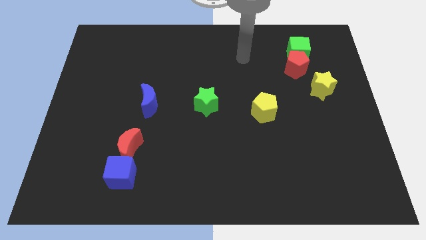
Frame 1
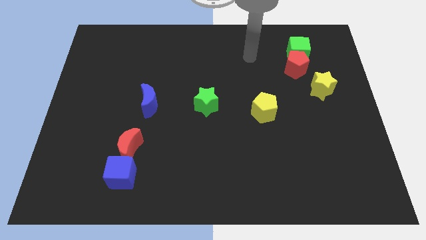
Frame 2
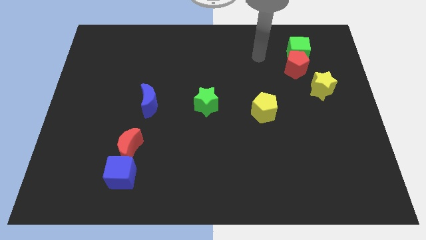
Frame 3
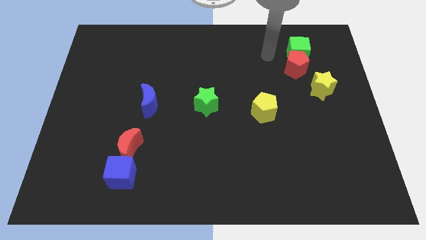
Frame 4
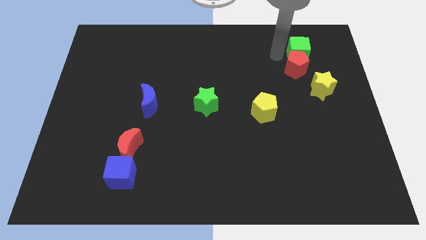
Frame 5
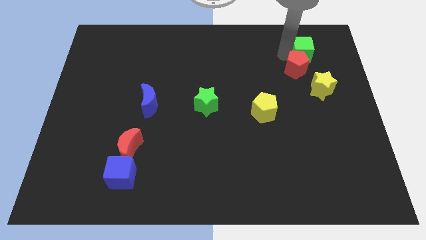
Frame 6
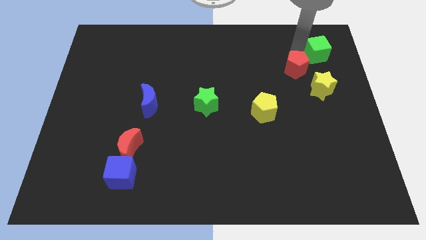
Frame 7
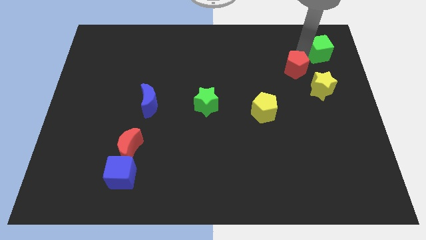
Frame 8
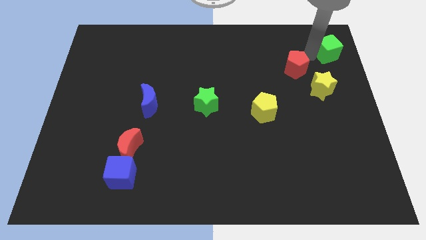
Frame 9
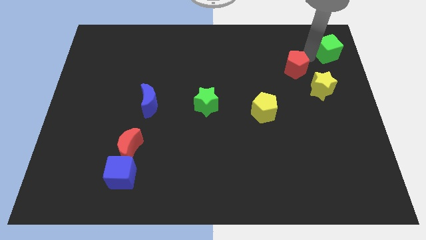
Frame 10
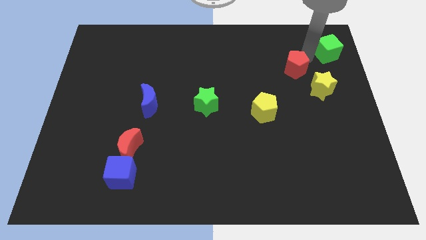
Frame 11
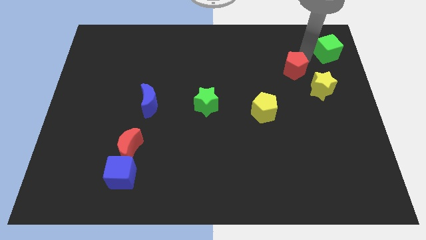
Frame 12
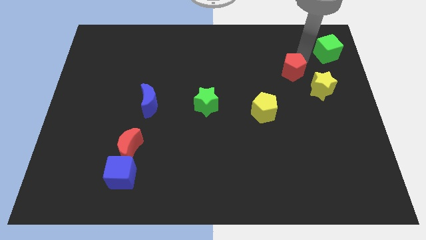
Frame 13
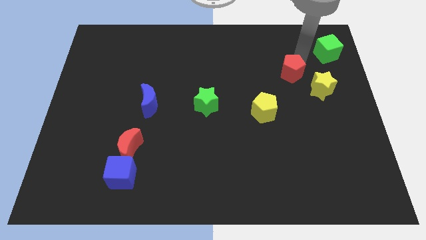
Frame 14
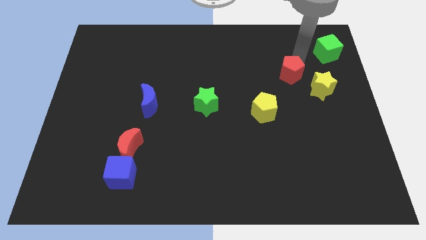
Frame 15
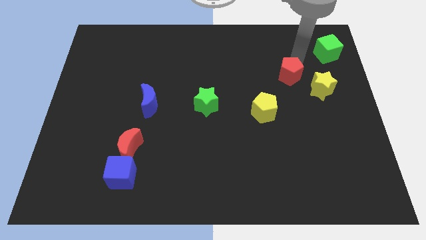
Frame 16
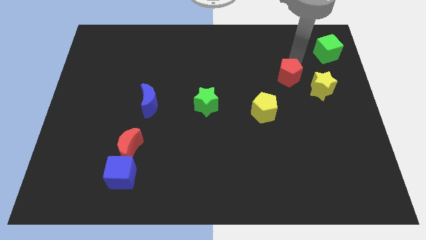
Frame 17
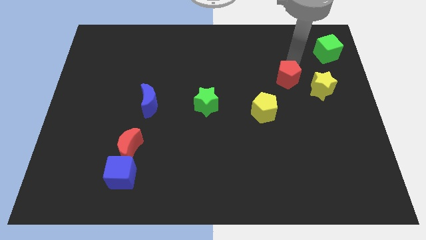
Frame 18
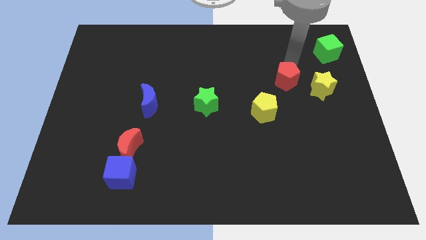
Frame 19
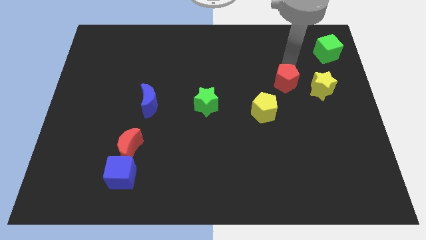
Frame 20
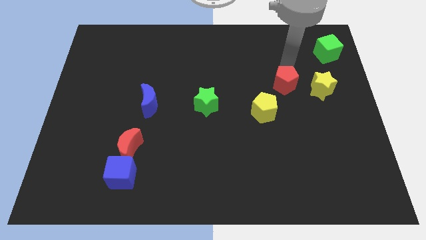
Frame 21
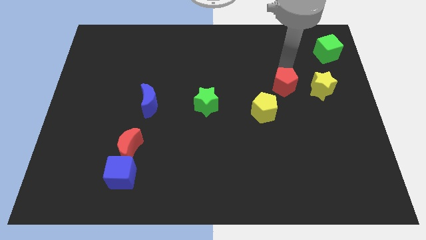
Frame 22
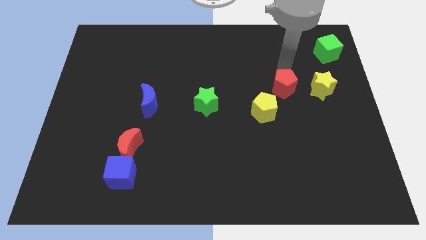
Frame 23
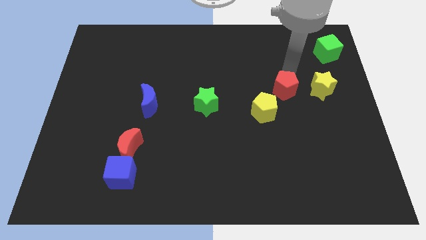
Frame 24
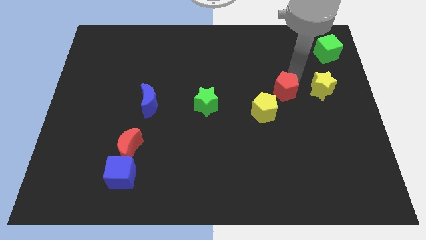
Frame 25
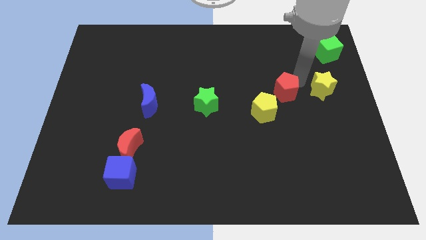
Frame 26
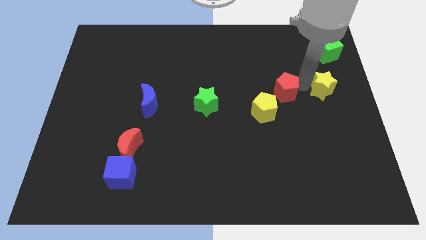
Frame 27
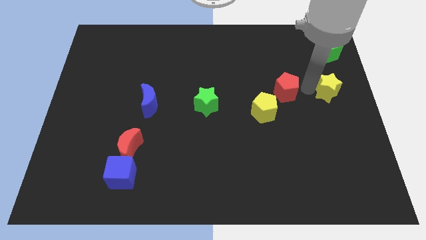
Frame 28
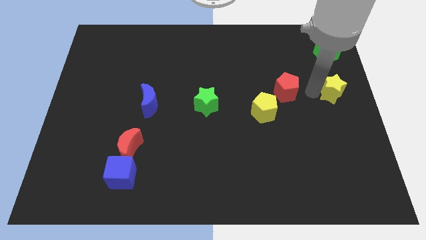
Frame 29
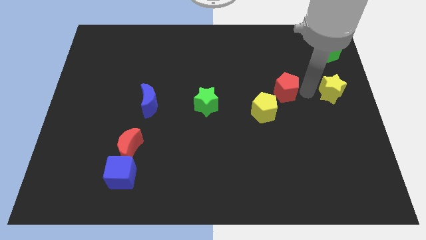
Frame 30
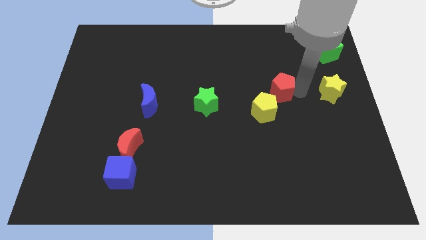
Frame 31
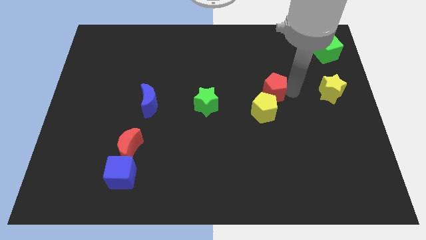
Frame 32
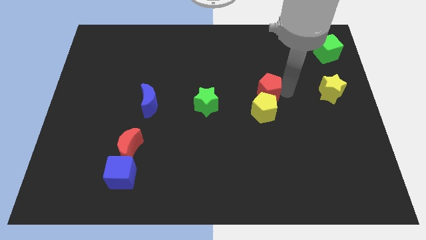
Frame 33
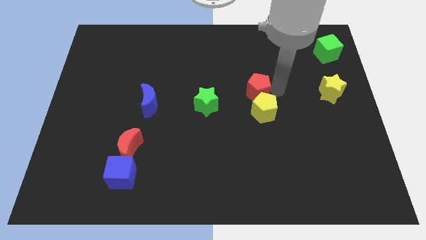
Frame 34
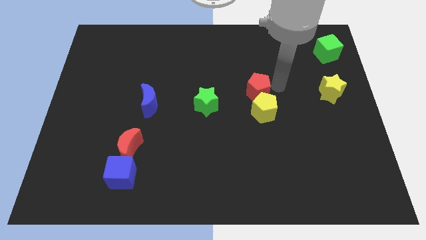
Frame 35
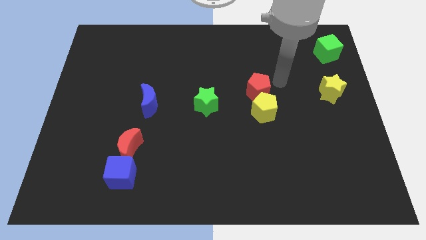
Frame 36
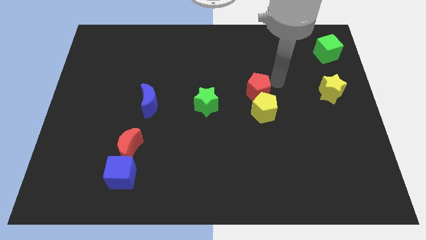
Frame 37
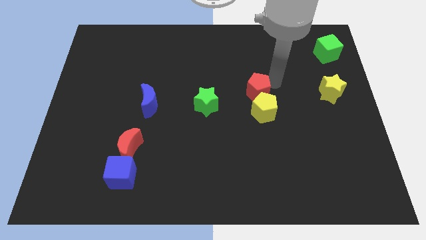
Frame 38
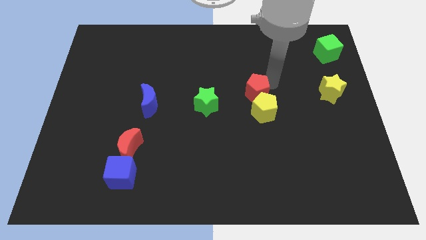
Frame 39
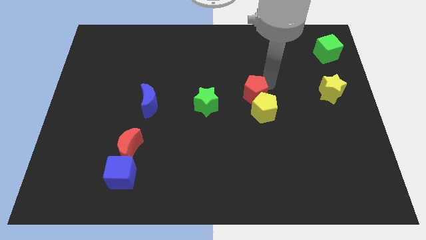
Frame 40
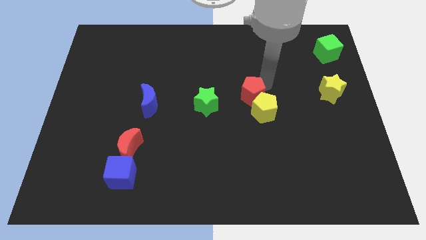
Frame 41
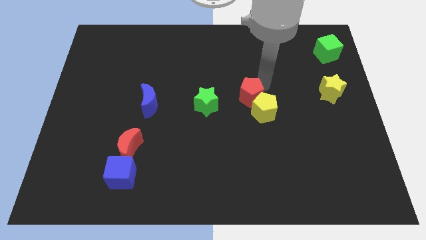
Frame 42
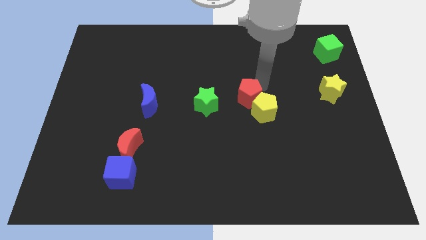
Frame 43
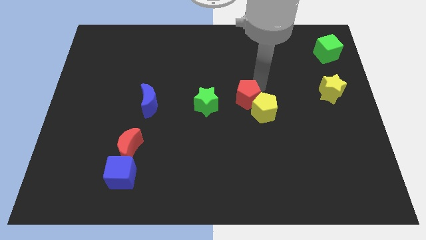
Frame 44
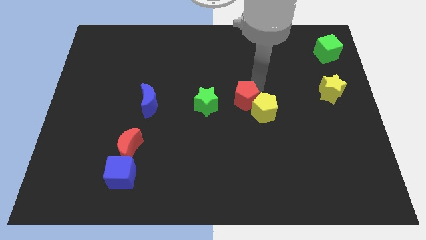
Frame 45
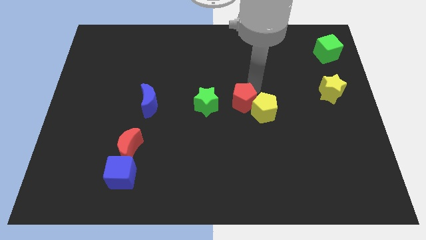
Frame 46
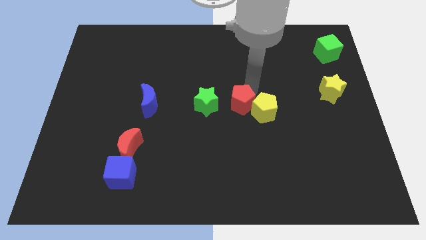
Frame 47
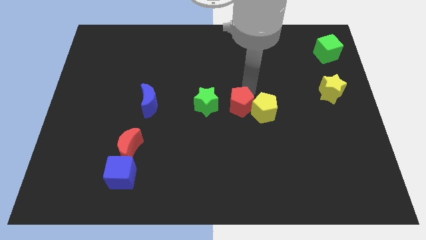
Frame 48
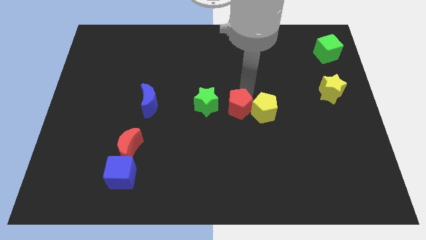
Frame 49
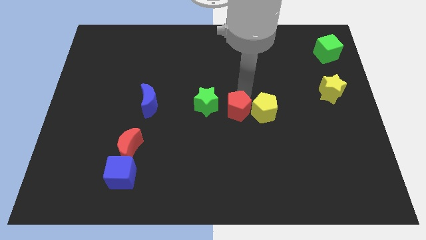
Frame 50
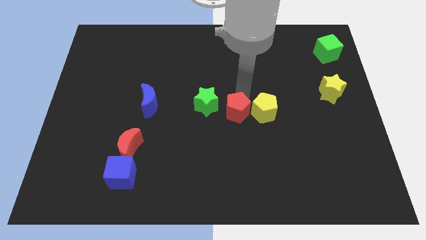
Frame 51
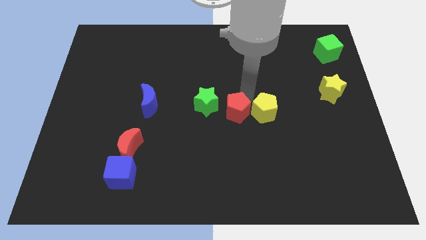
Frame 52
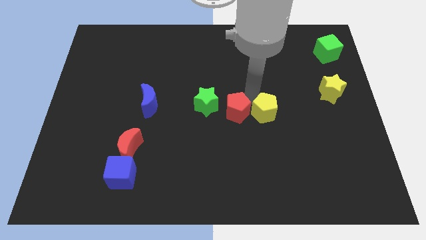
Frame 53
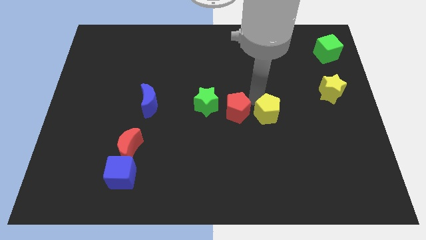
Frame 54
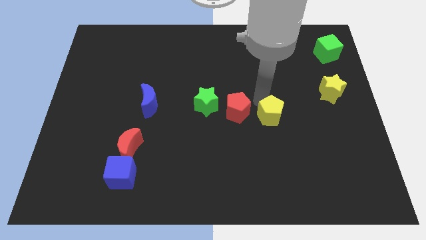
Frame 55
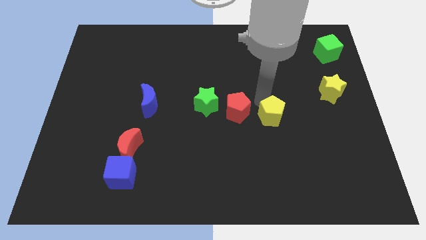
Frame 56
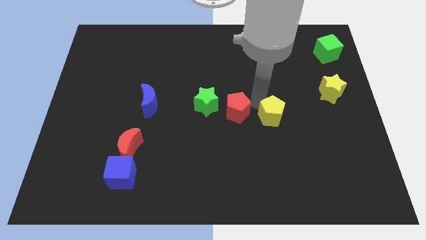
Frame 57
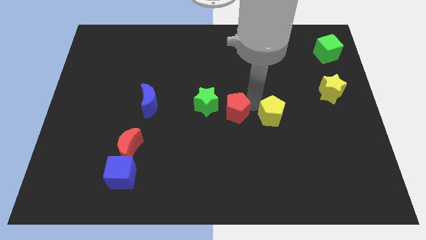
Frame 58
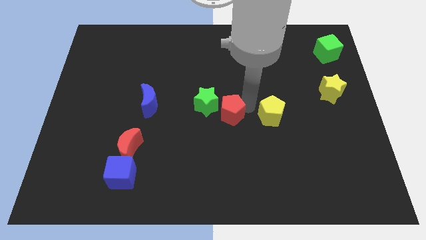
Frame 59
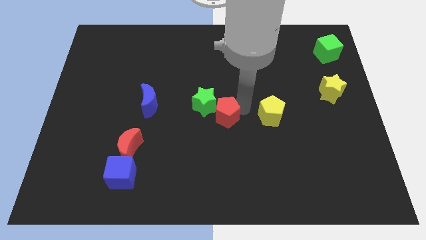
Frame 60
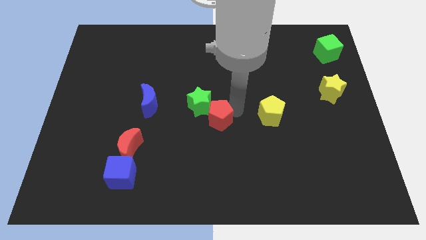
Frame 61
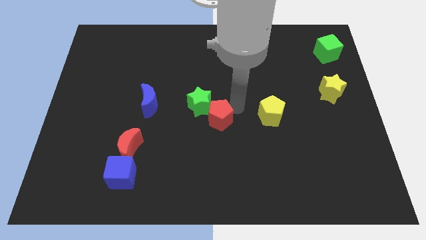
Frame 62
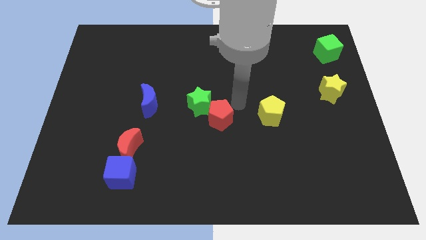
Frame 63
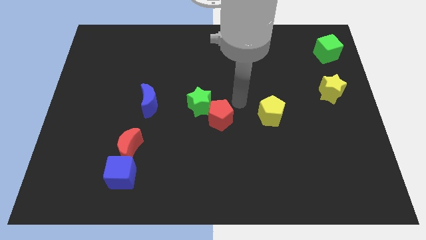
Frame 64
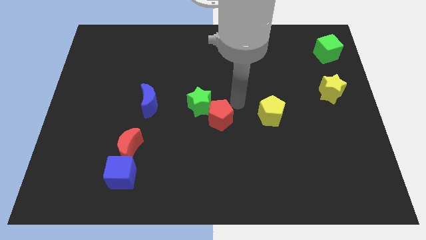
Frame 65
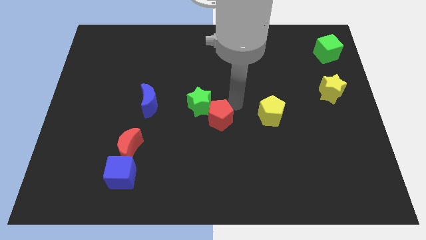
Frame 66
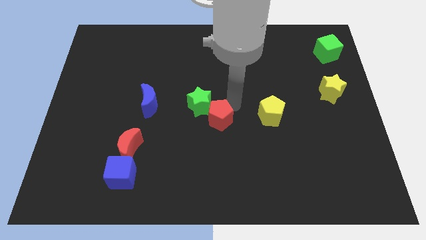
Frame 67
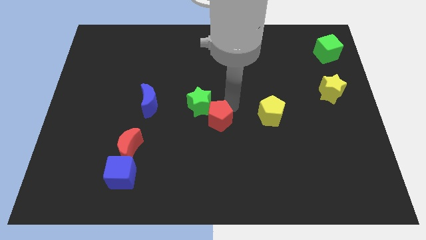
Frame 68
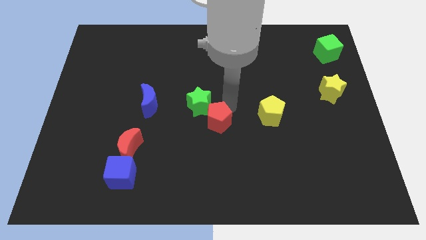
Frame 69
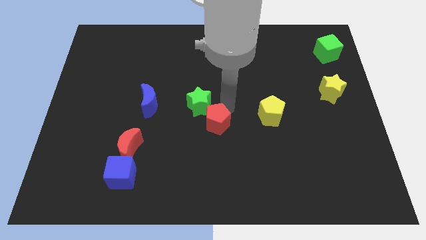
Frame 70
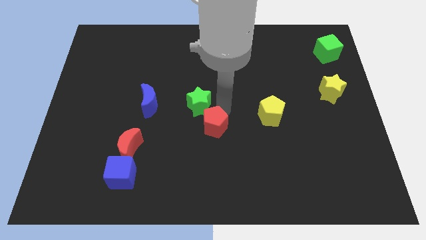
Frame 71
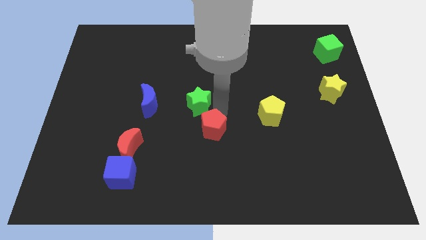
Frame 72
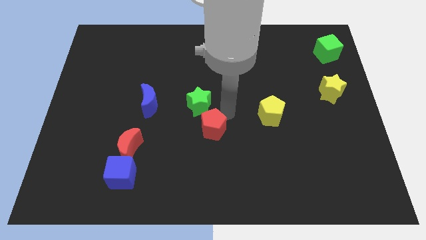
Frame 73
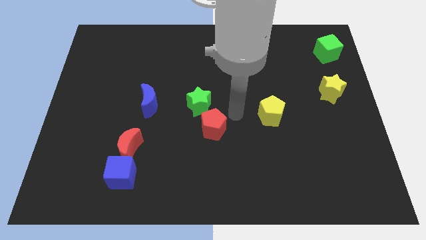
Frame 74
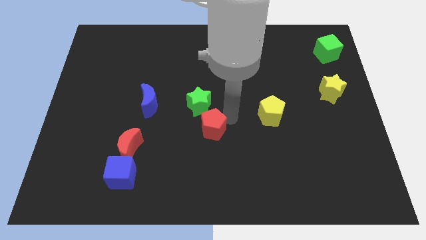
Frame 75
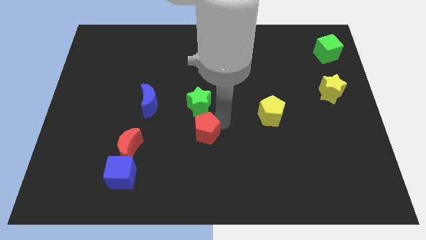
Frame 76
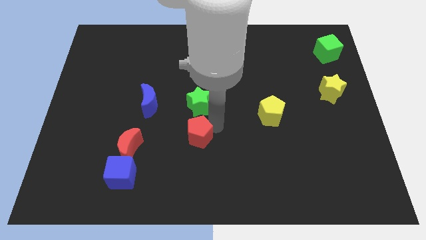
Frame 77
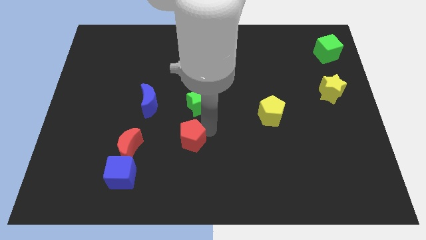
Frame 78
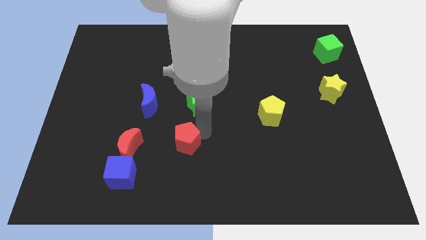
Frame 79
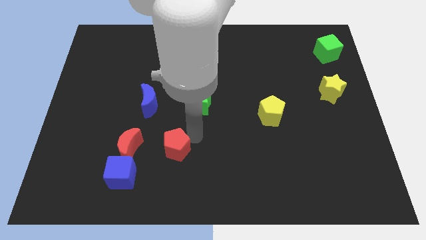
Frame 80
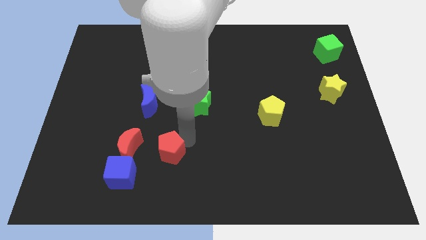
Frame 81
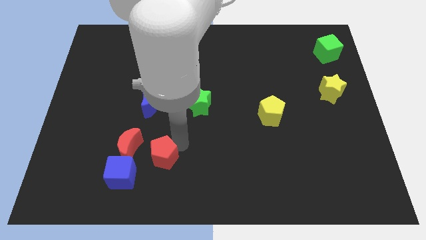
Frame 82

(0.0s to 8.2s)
slide the red pentagon to the bottom right of the red moon
